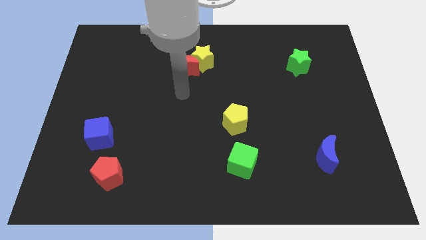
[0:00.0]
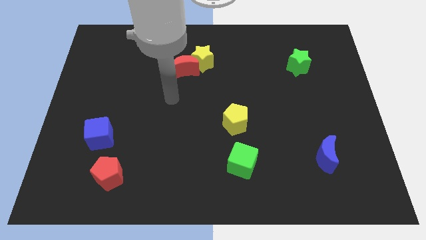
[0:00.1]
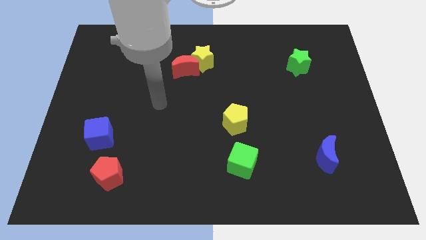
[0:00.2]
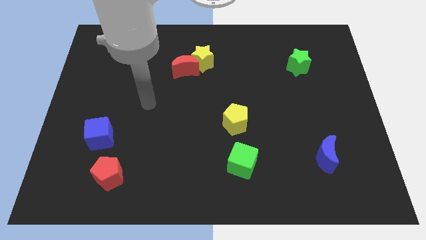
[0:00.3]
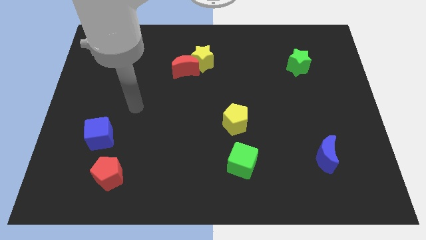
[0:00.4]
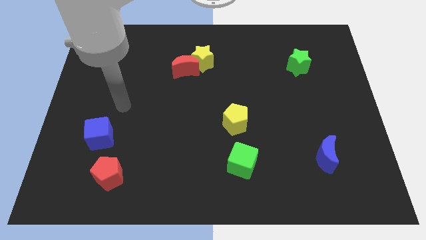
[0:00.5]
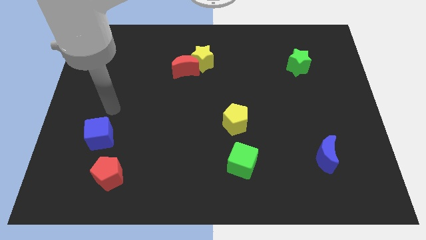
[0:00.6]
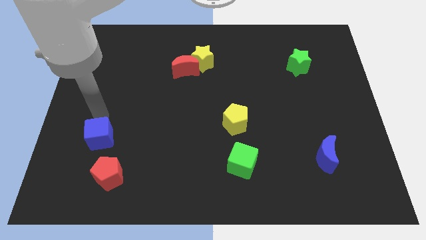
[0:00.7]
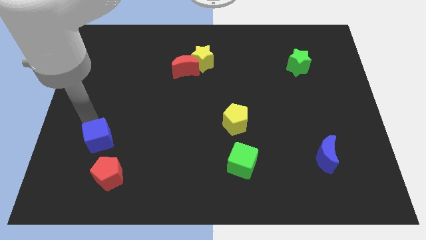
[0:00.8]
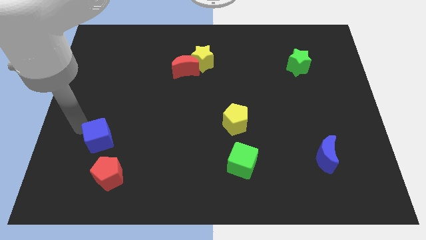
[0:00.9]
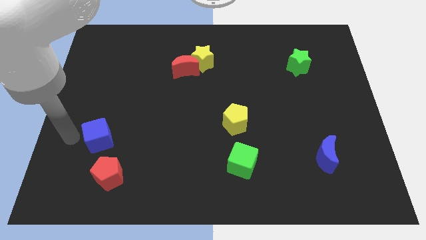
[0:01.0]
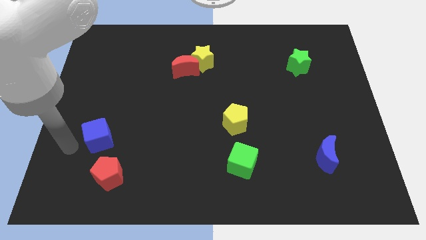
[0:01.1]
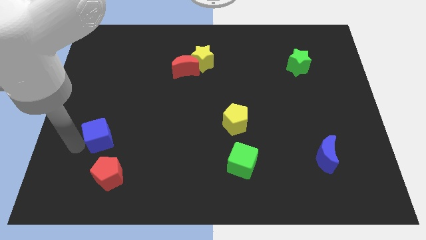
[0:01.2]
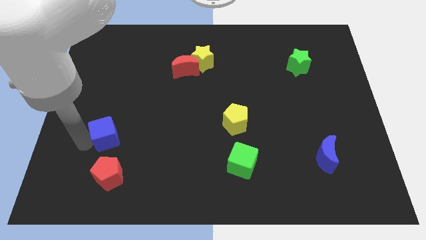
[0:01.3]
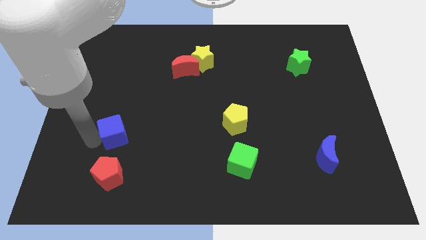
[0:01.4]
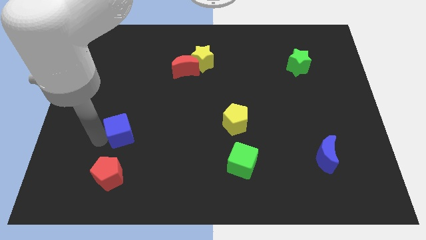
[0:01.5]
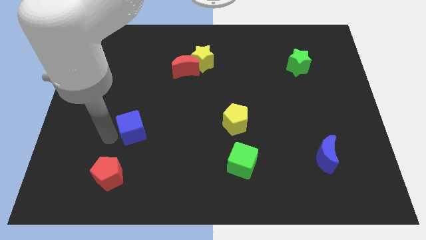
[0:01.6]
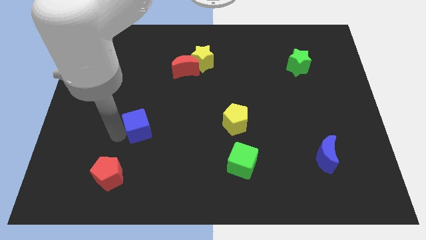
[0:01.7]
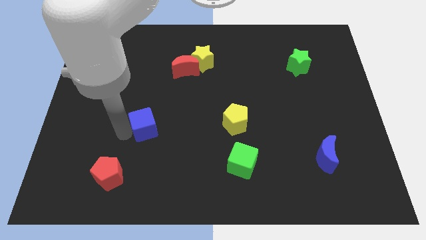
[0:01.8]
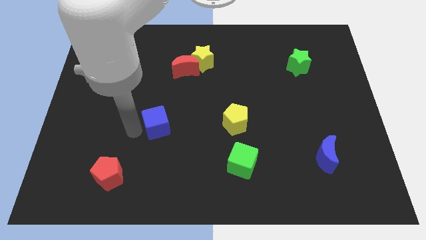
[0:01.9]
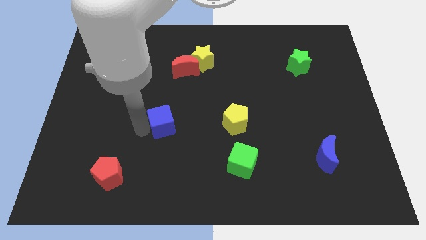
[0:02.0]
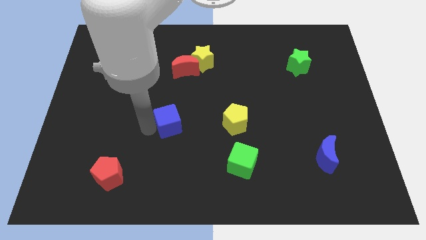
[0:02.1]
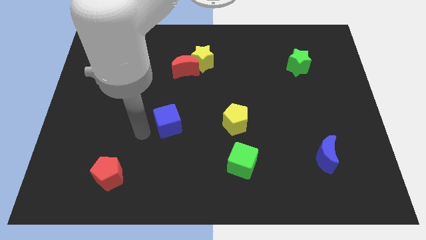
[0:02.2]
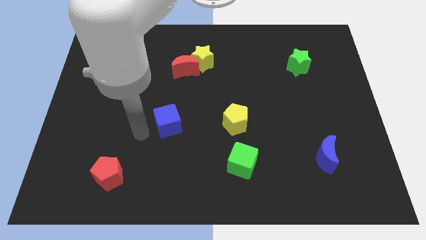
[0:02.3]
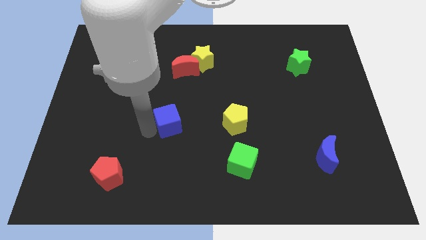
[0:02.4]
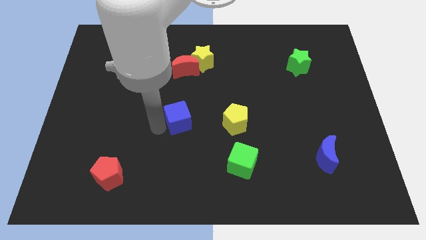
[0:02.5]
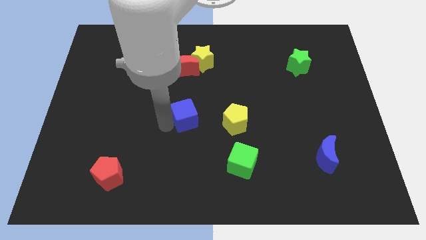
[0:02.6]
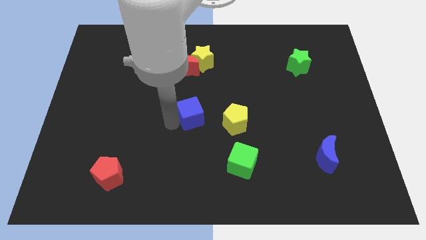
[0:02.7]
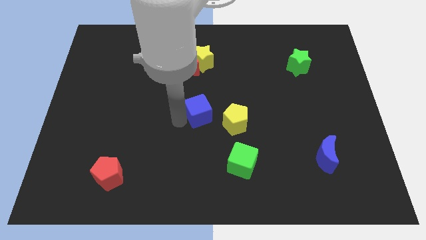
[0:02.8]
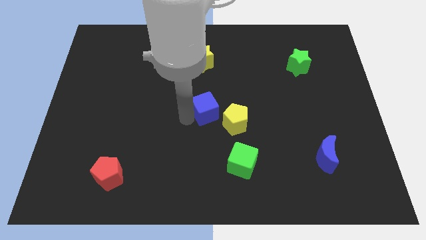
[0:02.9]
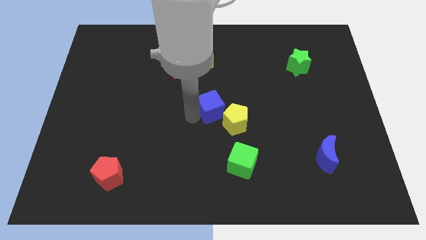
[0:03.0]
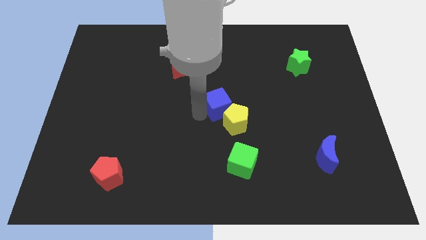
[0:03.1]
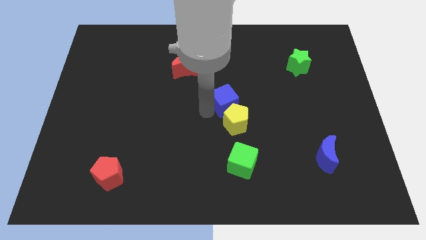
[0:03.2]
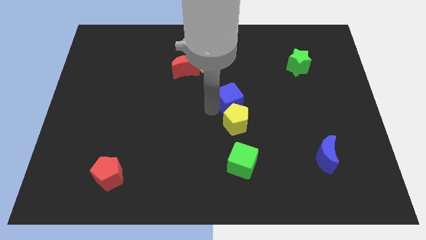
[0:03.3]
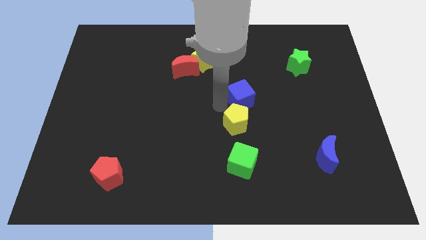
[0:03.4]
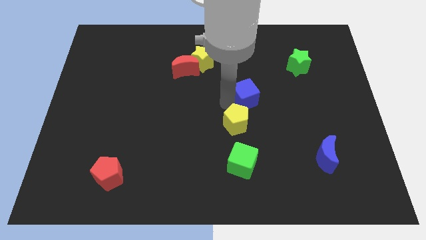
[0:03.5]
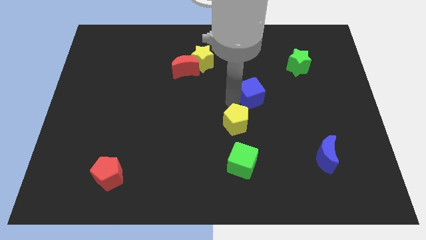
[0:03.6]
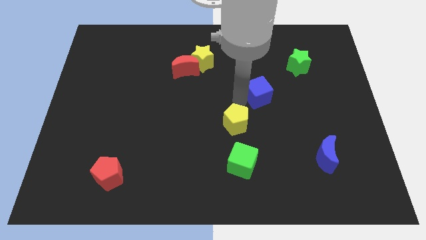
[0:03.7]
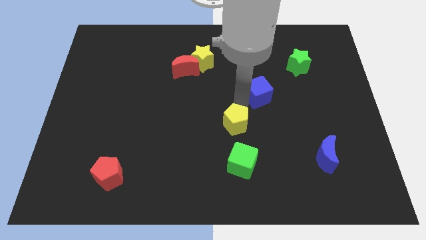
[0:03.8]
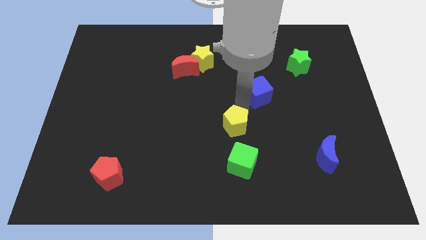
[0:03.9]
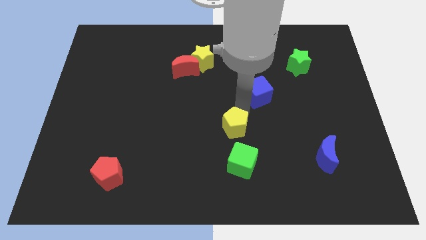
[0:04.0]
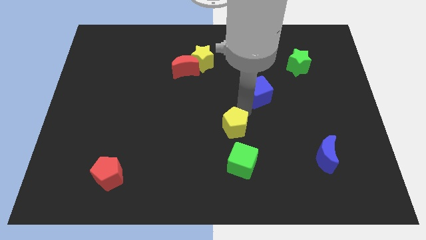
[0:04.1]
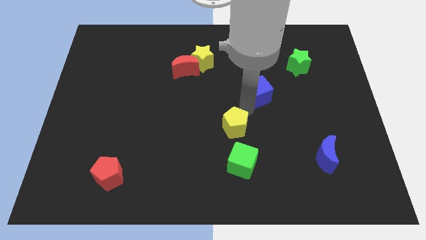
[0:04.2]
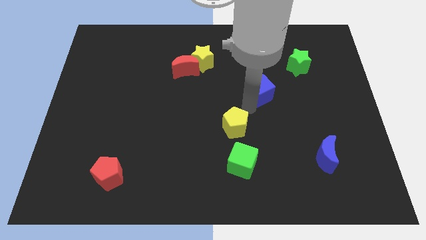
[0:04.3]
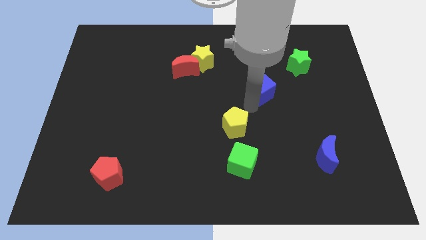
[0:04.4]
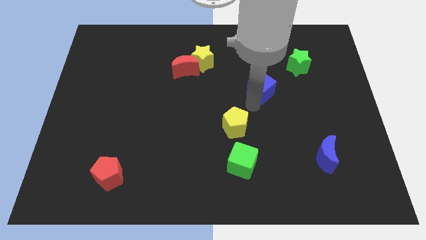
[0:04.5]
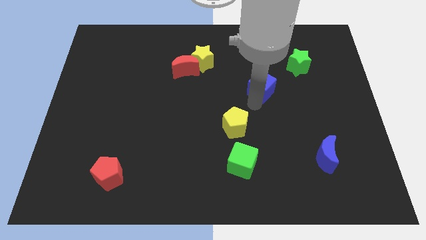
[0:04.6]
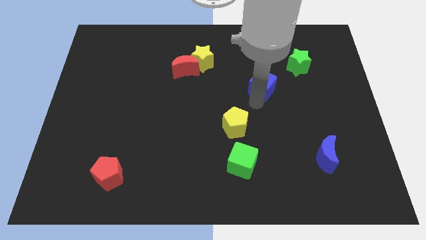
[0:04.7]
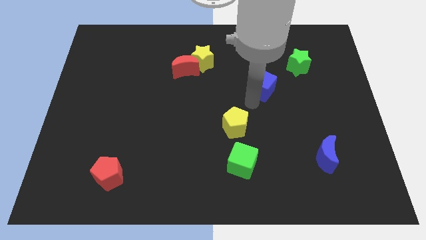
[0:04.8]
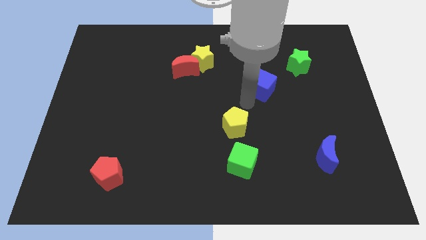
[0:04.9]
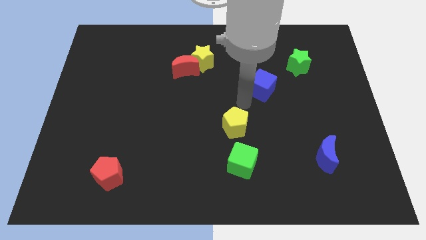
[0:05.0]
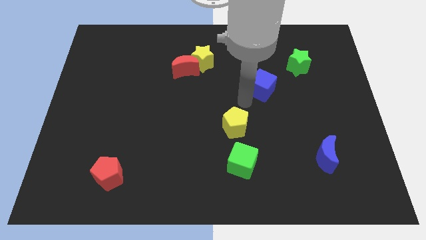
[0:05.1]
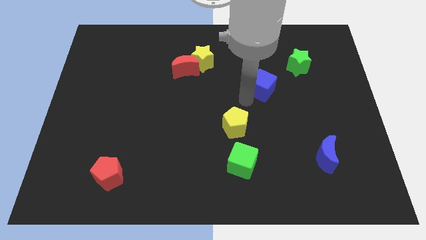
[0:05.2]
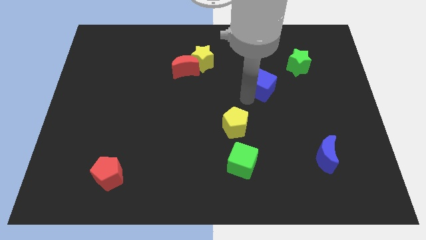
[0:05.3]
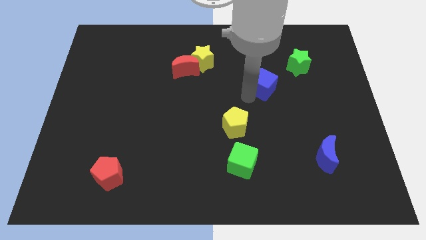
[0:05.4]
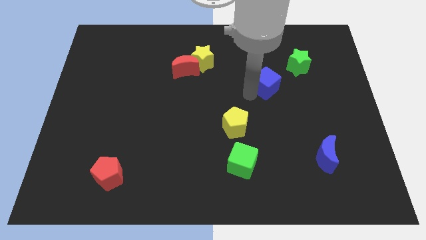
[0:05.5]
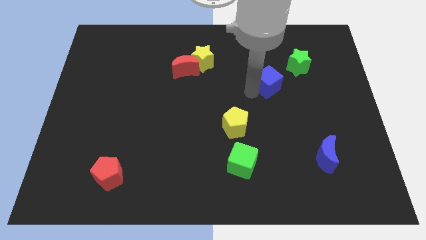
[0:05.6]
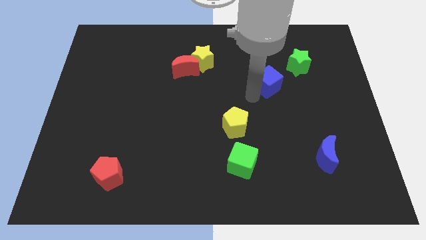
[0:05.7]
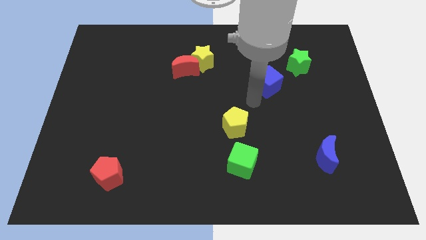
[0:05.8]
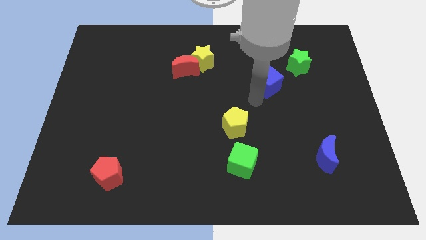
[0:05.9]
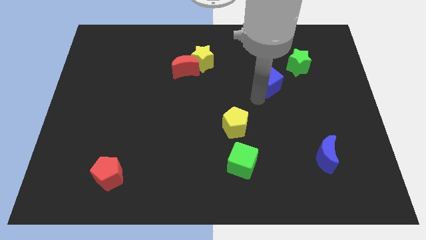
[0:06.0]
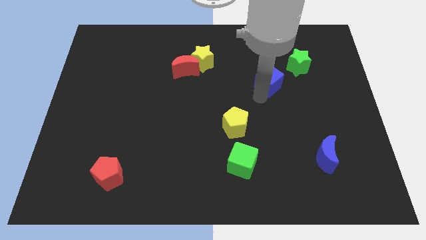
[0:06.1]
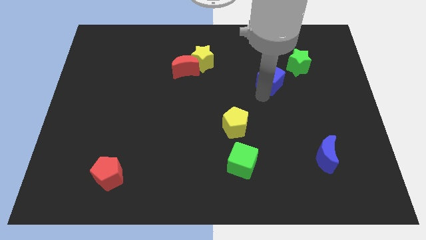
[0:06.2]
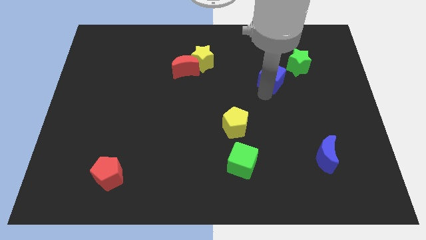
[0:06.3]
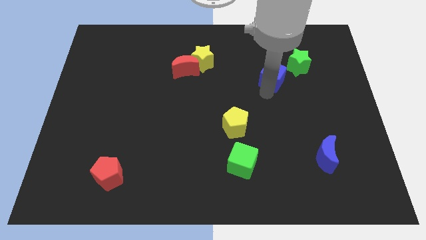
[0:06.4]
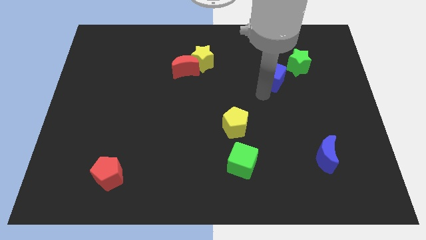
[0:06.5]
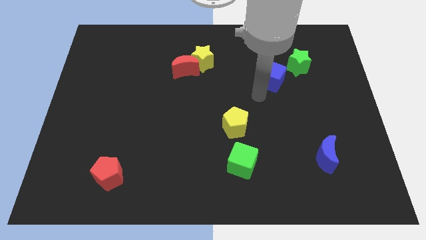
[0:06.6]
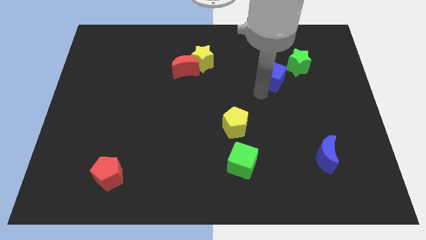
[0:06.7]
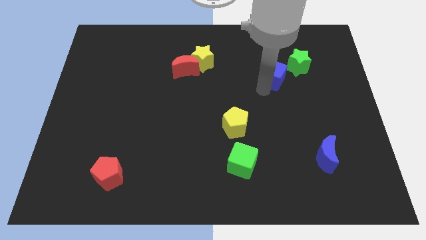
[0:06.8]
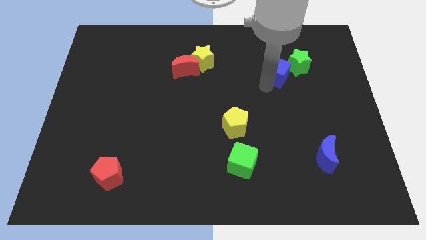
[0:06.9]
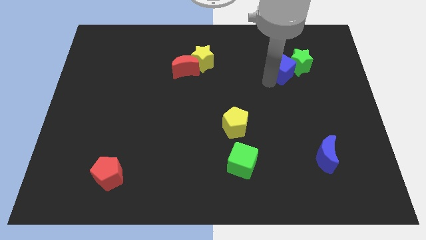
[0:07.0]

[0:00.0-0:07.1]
move the blue cube towards the green star
